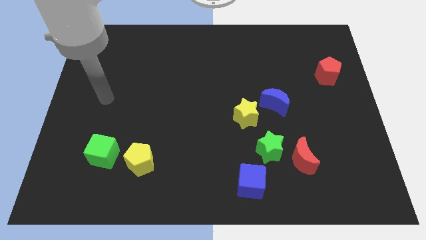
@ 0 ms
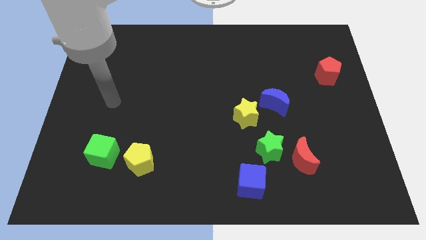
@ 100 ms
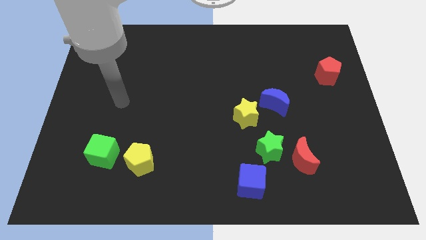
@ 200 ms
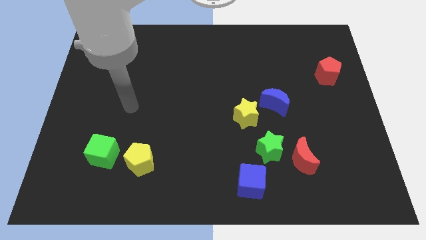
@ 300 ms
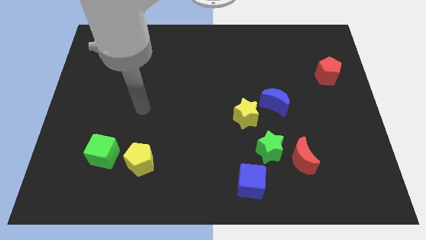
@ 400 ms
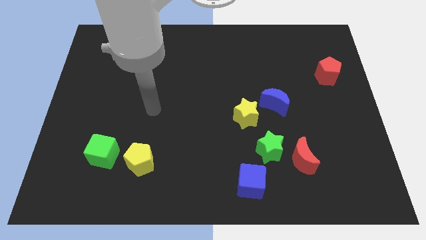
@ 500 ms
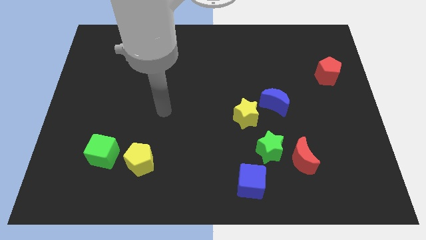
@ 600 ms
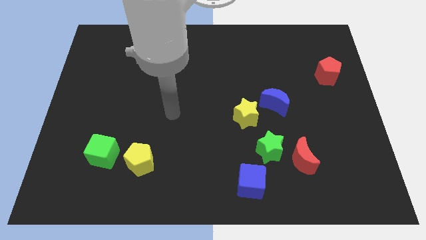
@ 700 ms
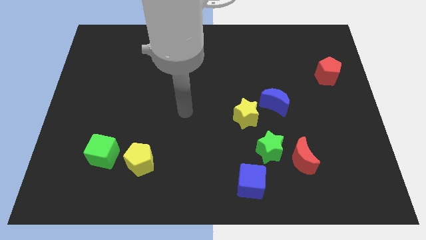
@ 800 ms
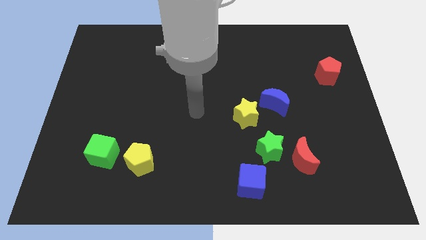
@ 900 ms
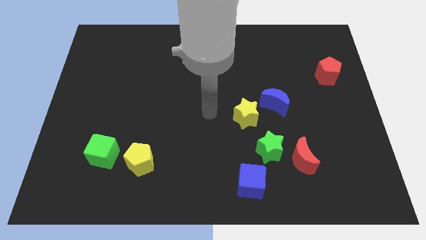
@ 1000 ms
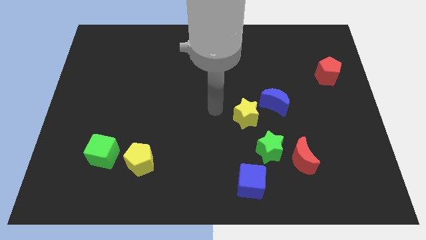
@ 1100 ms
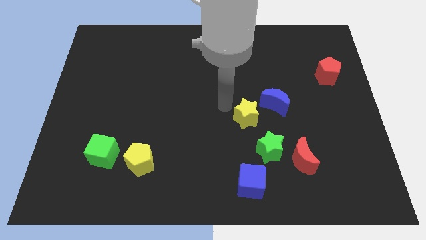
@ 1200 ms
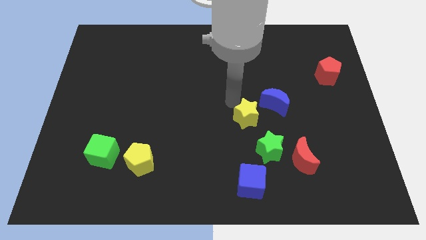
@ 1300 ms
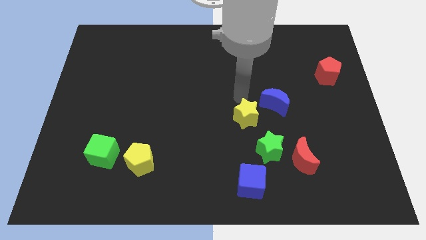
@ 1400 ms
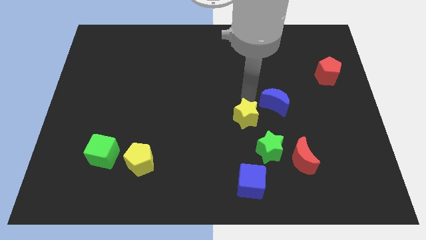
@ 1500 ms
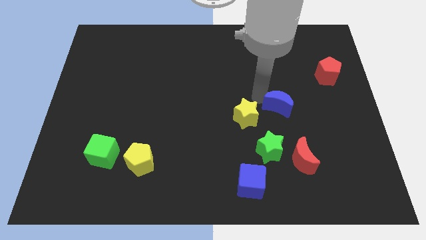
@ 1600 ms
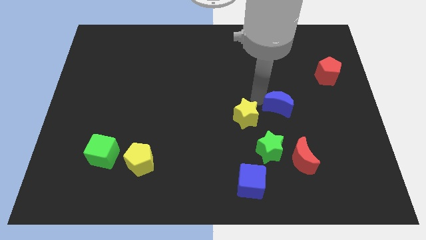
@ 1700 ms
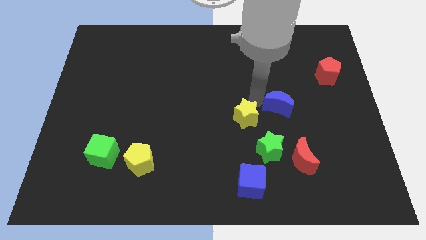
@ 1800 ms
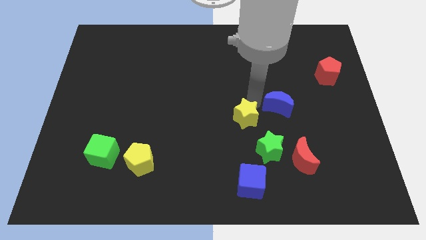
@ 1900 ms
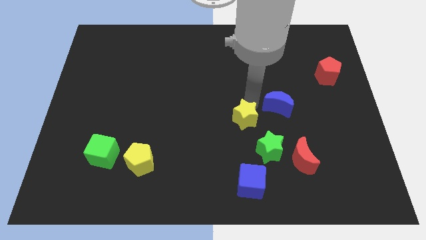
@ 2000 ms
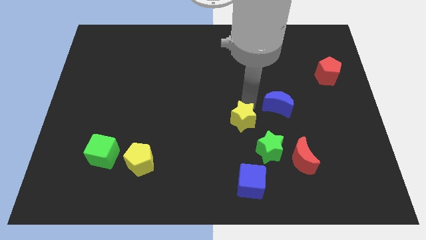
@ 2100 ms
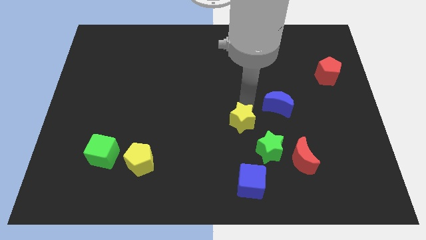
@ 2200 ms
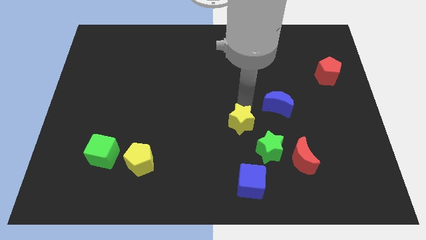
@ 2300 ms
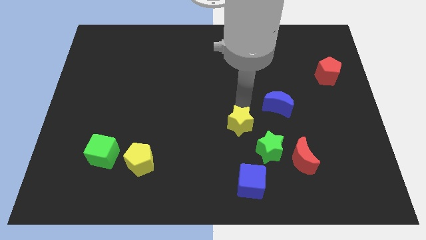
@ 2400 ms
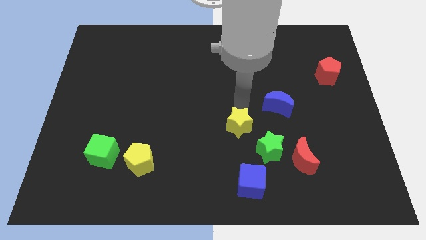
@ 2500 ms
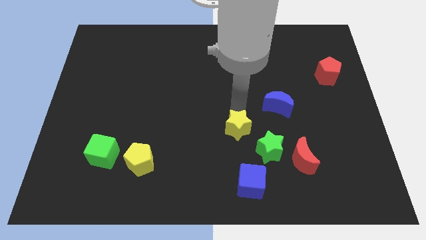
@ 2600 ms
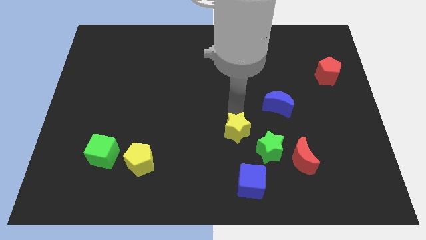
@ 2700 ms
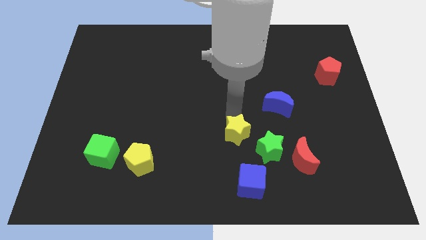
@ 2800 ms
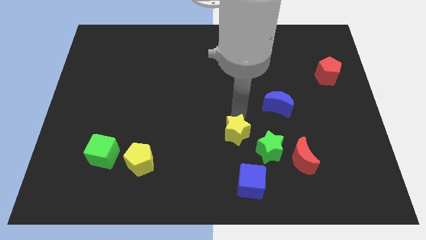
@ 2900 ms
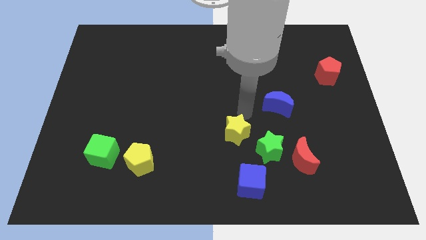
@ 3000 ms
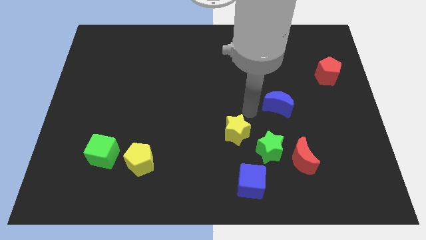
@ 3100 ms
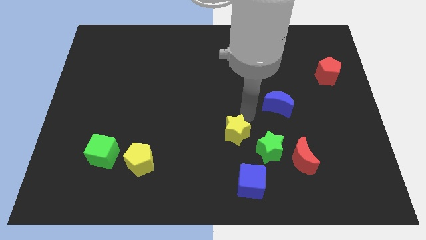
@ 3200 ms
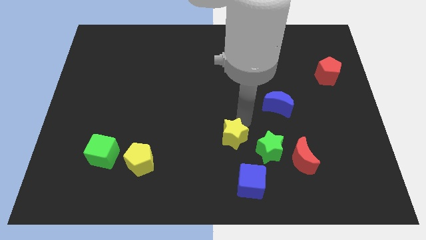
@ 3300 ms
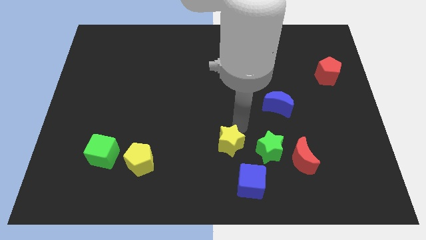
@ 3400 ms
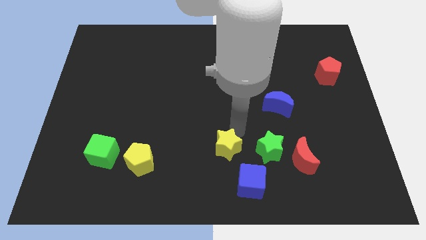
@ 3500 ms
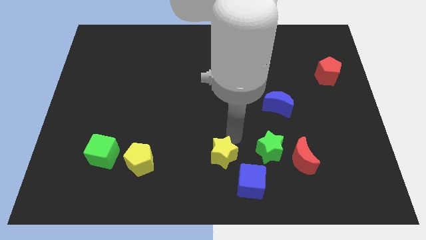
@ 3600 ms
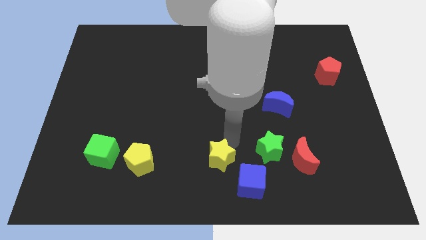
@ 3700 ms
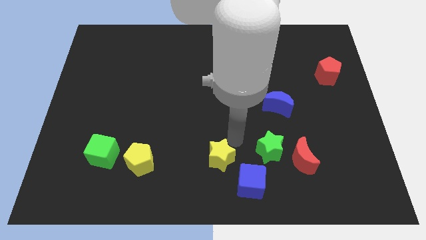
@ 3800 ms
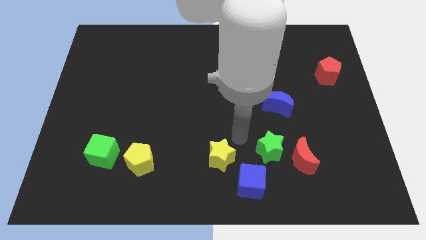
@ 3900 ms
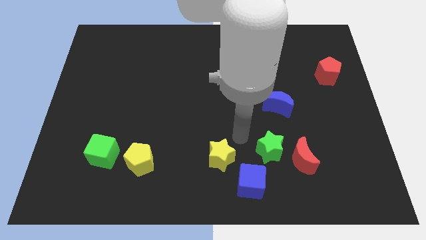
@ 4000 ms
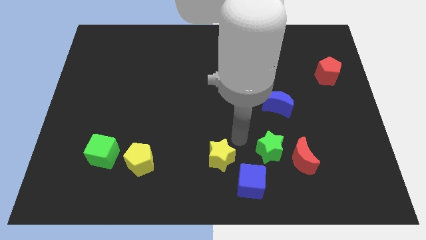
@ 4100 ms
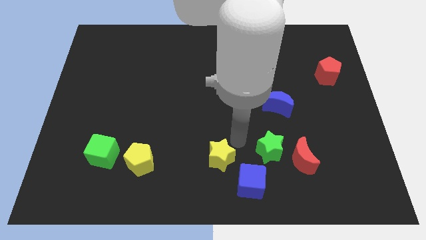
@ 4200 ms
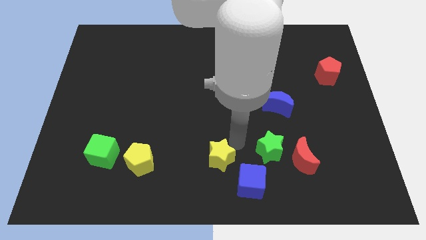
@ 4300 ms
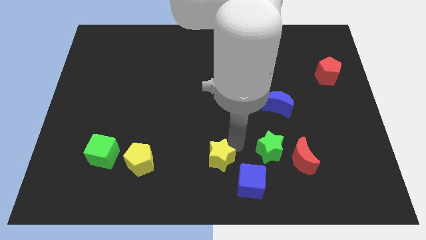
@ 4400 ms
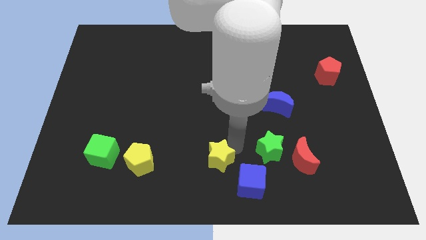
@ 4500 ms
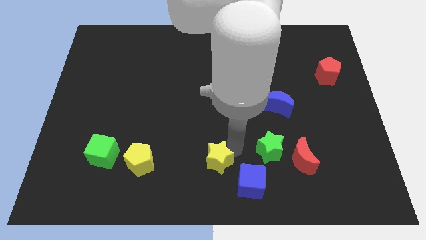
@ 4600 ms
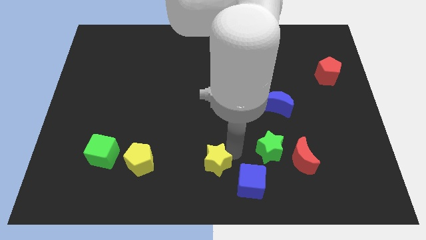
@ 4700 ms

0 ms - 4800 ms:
slide the yellow star just left of the blue cube

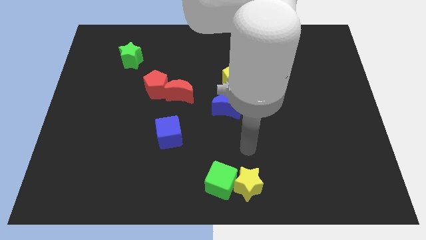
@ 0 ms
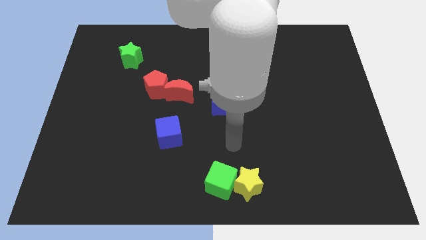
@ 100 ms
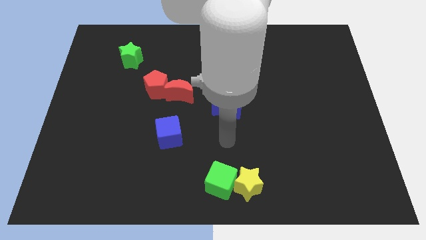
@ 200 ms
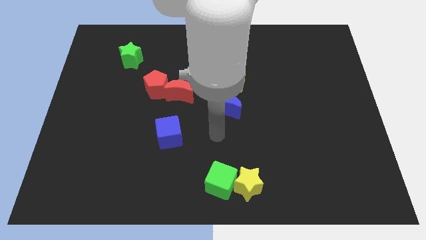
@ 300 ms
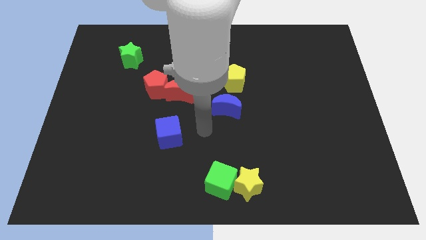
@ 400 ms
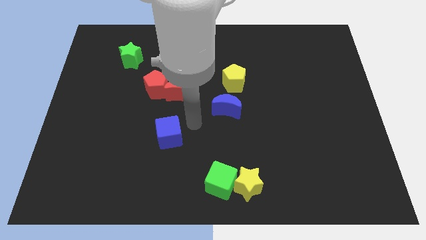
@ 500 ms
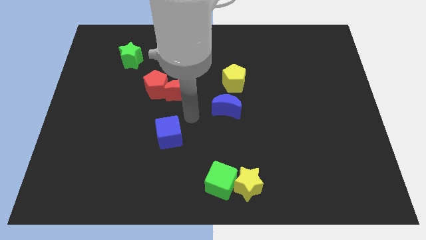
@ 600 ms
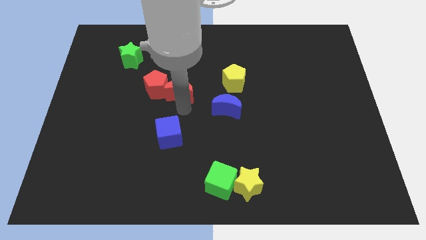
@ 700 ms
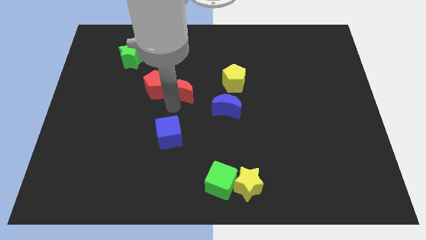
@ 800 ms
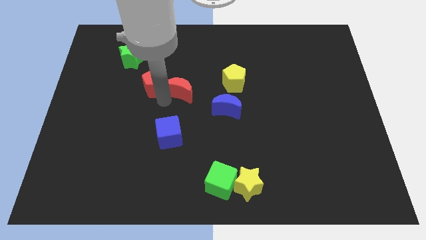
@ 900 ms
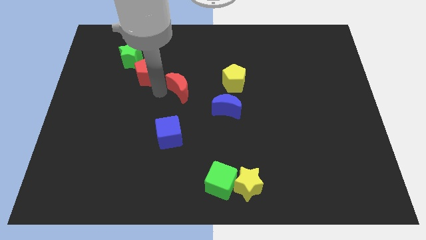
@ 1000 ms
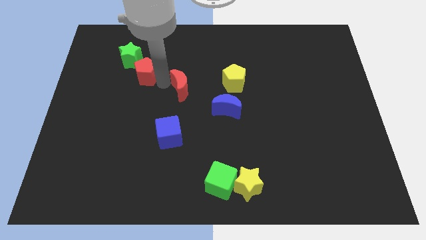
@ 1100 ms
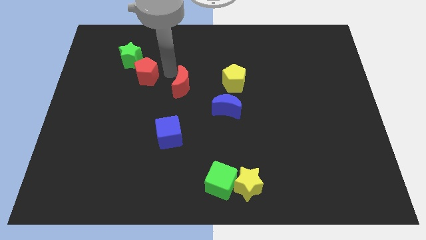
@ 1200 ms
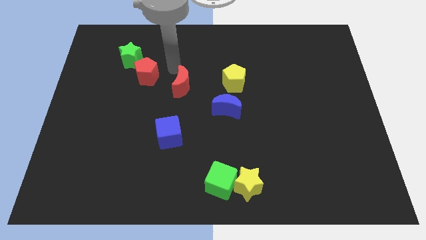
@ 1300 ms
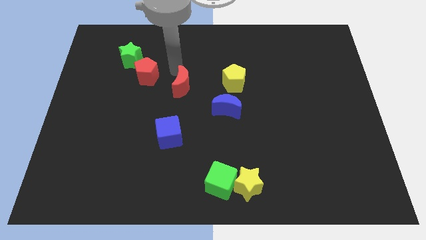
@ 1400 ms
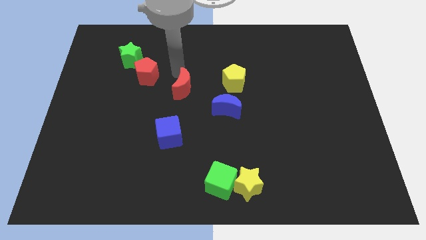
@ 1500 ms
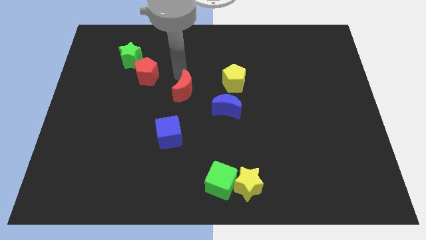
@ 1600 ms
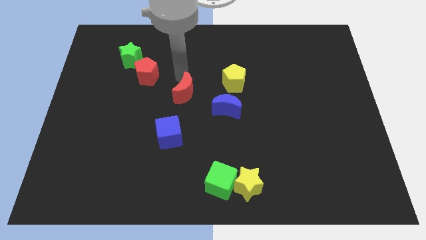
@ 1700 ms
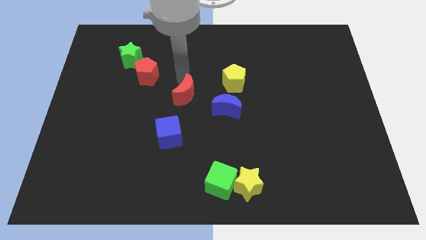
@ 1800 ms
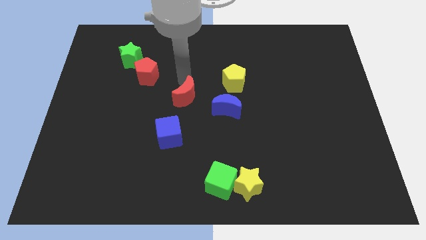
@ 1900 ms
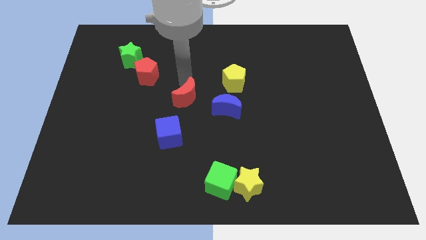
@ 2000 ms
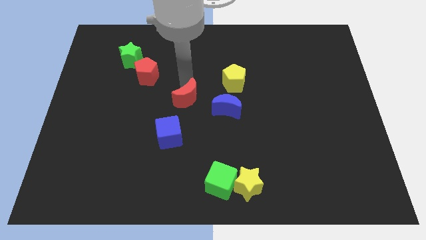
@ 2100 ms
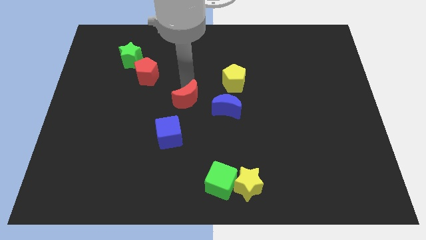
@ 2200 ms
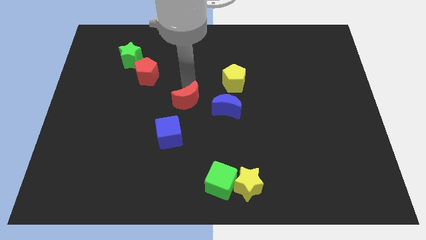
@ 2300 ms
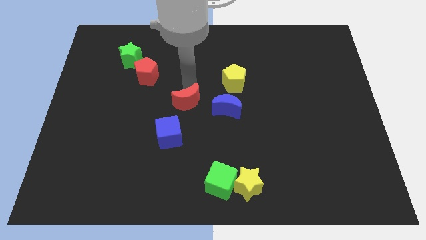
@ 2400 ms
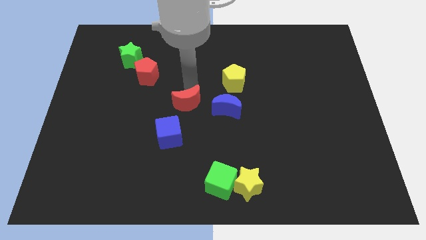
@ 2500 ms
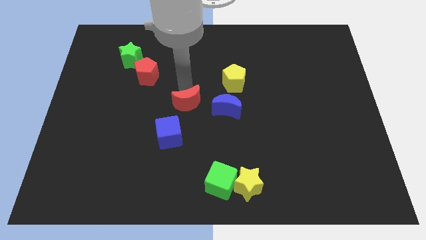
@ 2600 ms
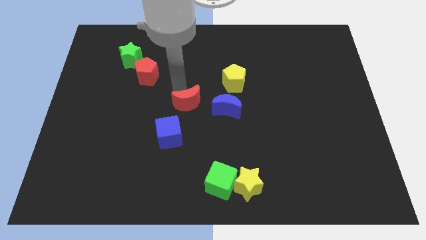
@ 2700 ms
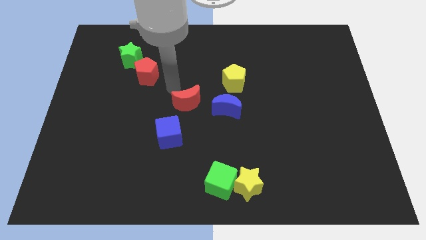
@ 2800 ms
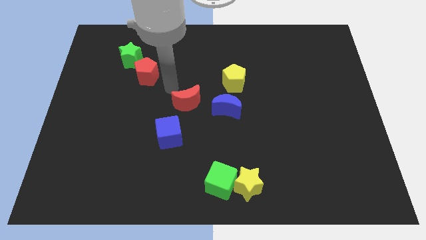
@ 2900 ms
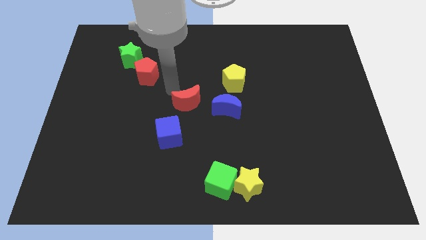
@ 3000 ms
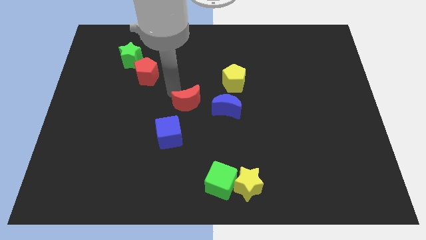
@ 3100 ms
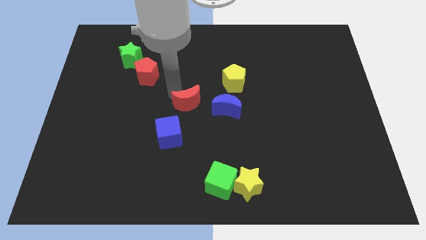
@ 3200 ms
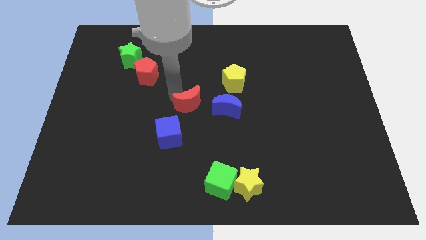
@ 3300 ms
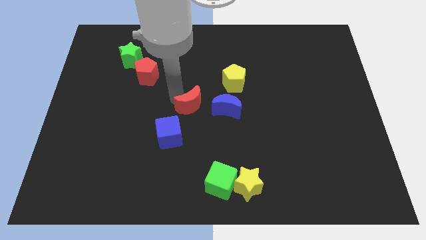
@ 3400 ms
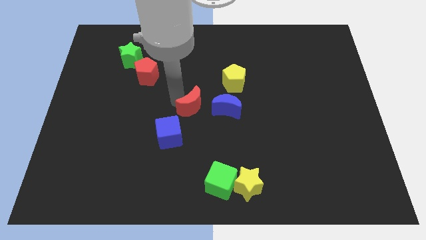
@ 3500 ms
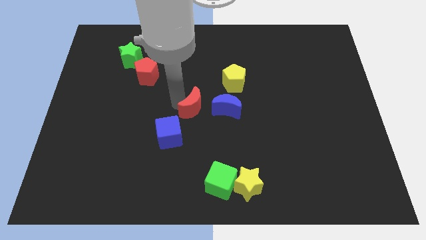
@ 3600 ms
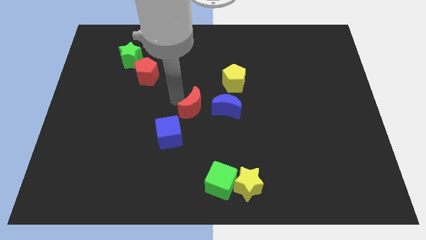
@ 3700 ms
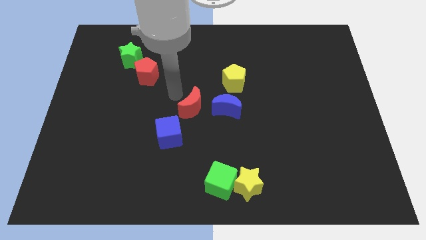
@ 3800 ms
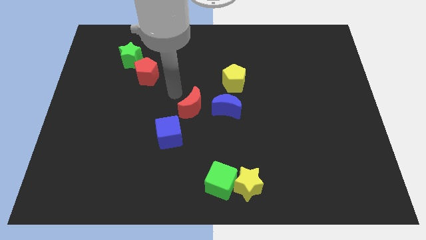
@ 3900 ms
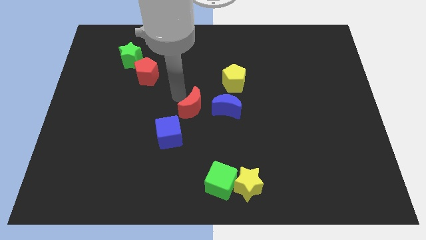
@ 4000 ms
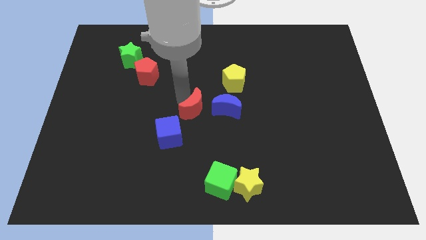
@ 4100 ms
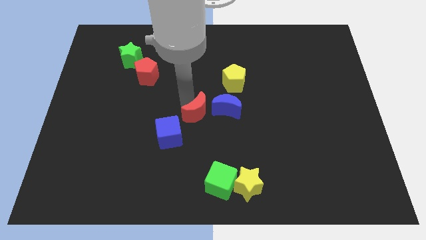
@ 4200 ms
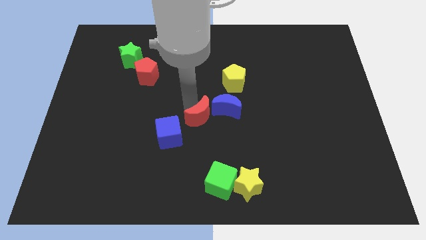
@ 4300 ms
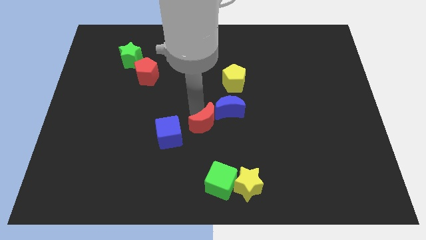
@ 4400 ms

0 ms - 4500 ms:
put the red moon to the top of the green cube
